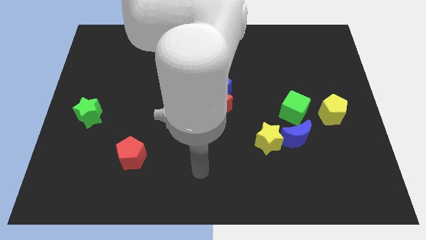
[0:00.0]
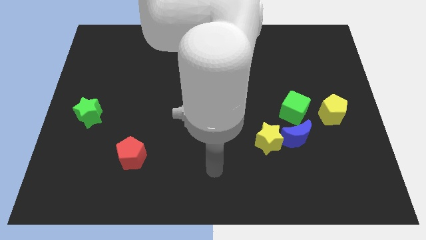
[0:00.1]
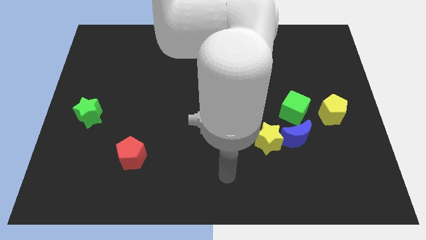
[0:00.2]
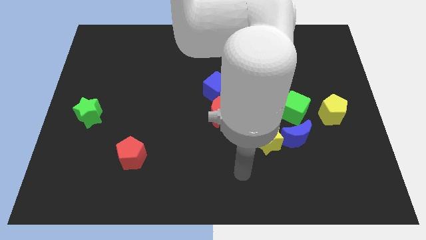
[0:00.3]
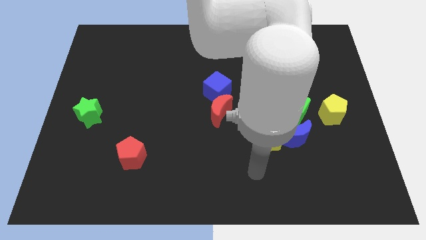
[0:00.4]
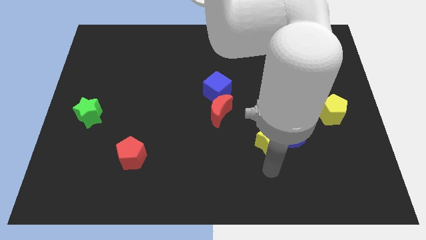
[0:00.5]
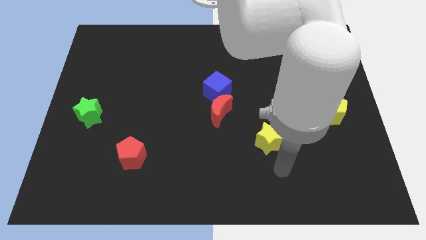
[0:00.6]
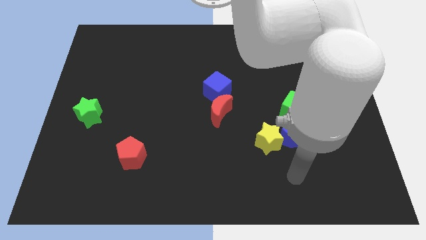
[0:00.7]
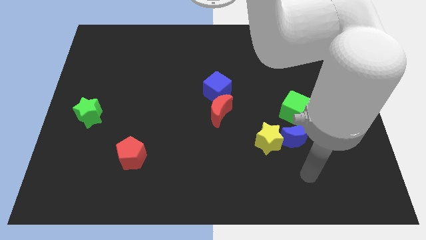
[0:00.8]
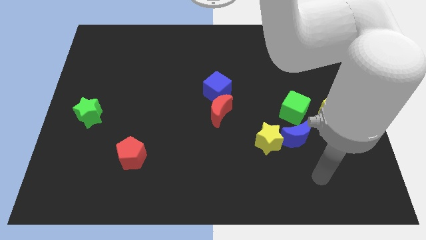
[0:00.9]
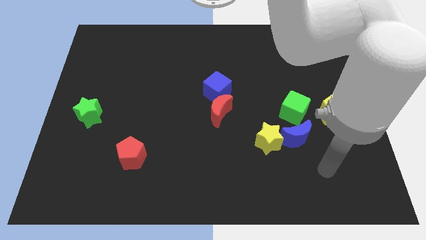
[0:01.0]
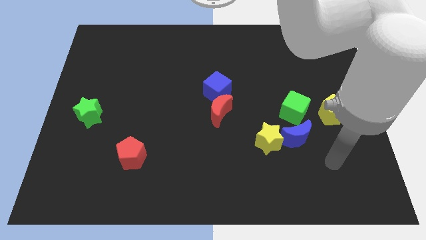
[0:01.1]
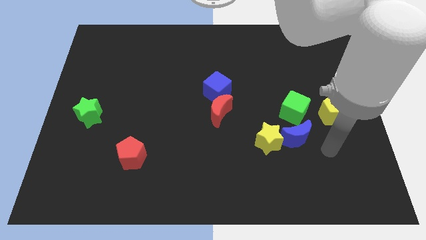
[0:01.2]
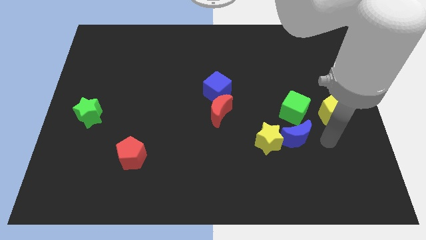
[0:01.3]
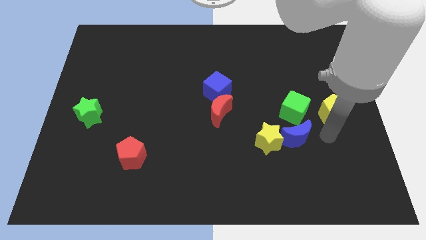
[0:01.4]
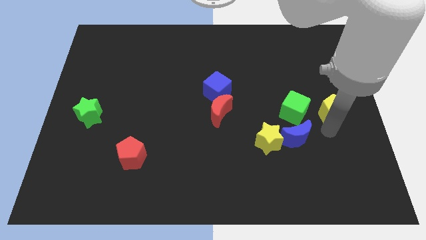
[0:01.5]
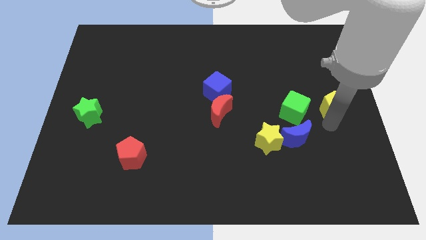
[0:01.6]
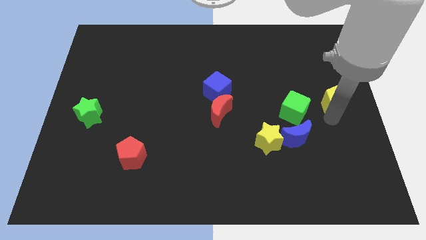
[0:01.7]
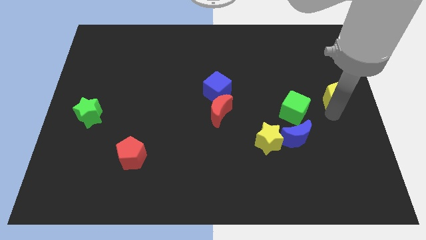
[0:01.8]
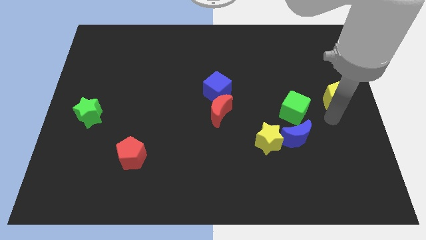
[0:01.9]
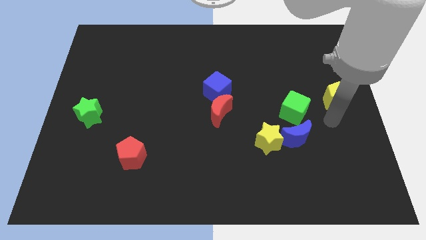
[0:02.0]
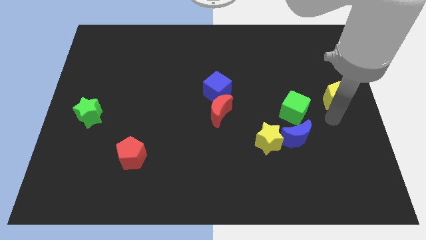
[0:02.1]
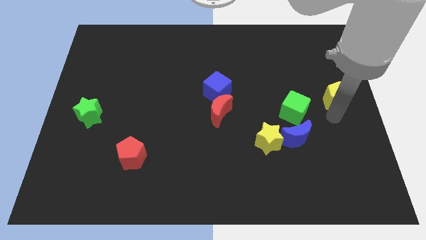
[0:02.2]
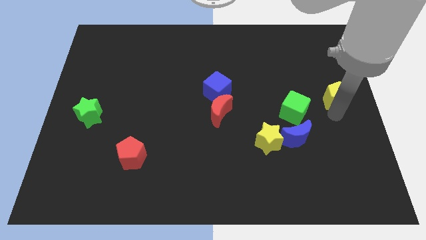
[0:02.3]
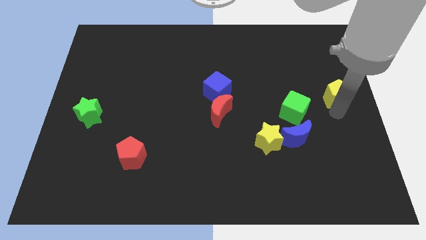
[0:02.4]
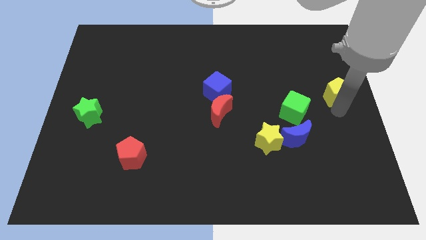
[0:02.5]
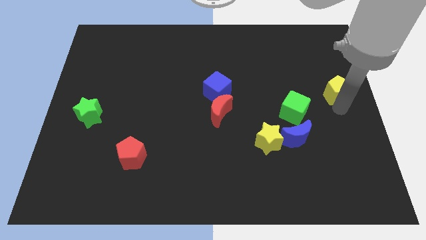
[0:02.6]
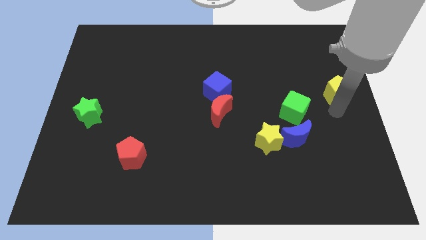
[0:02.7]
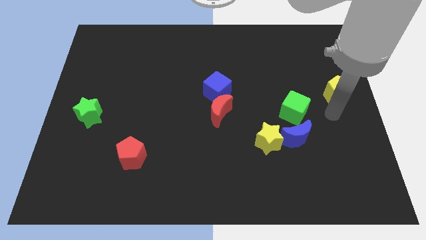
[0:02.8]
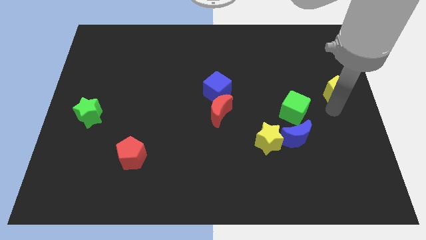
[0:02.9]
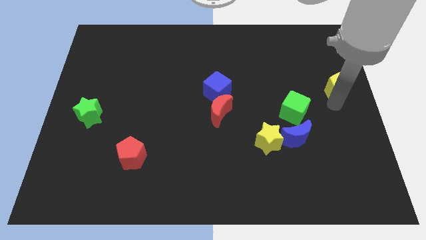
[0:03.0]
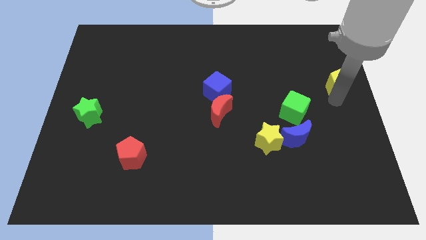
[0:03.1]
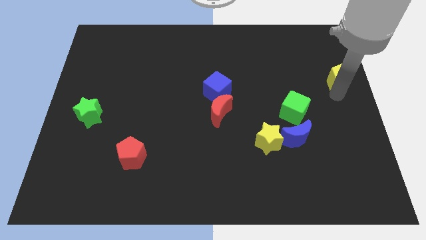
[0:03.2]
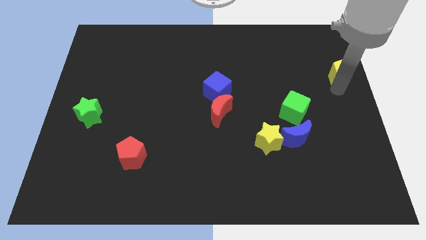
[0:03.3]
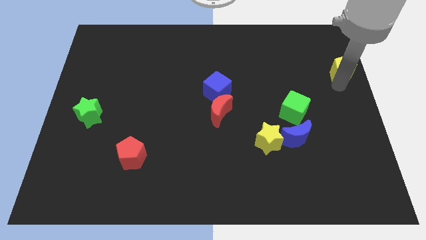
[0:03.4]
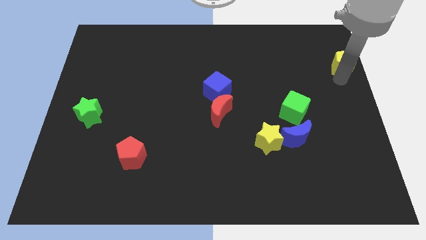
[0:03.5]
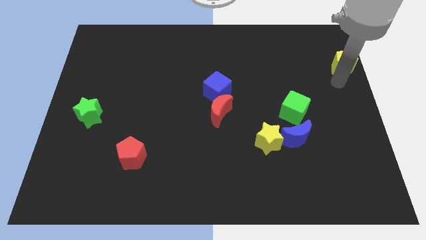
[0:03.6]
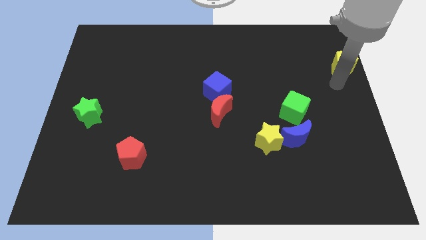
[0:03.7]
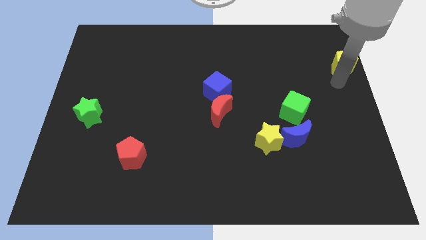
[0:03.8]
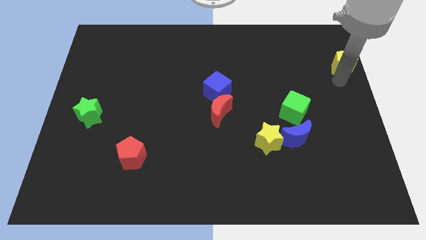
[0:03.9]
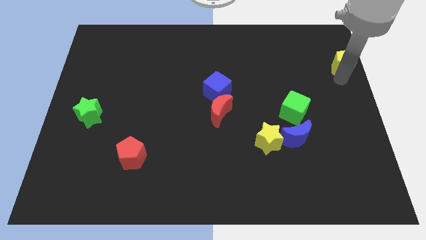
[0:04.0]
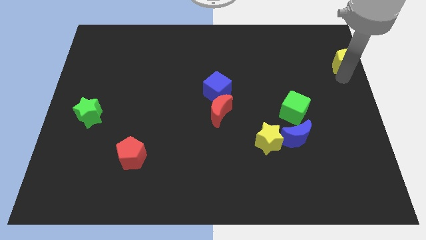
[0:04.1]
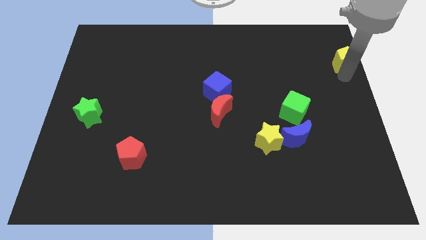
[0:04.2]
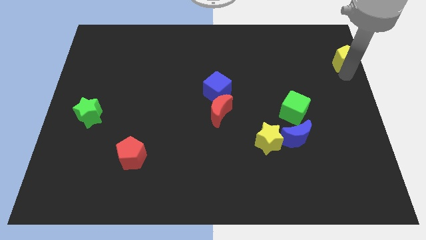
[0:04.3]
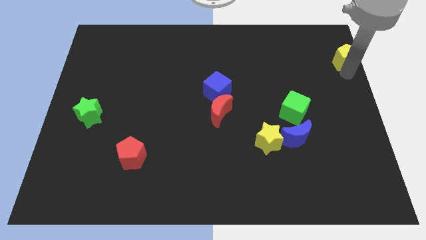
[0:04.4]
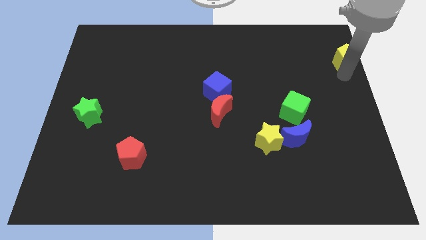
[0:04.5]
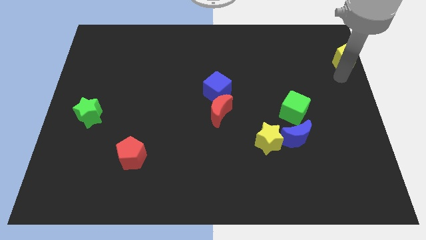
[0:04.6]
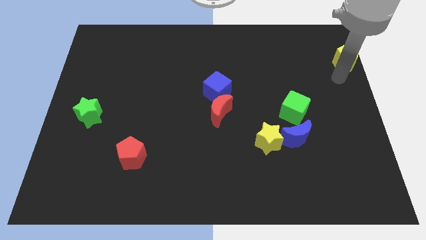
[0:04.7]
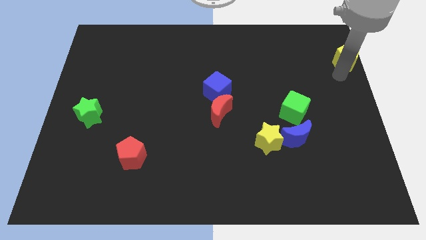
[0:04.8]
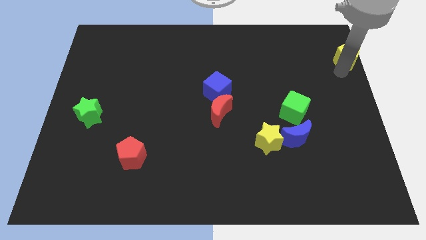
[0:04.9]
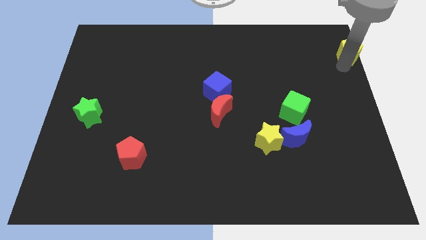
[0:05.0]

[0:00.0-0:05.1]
move the yellow pentagon to the top right corner

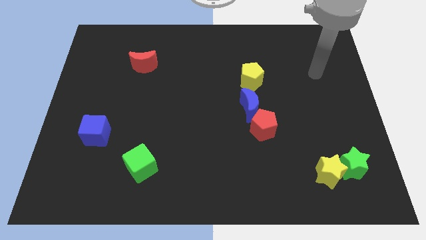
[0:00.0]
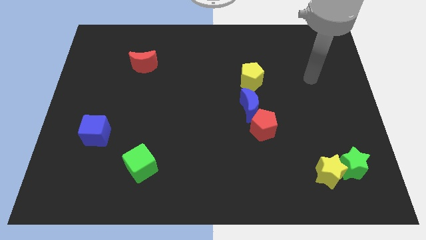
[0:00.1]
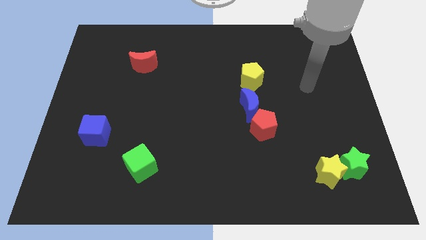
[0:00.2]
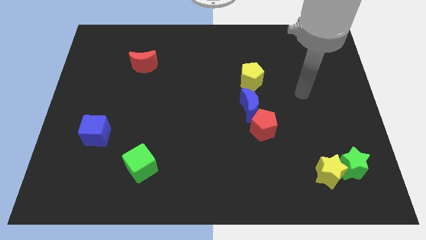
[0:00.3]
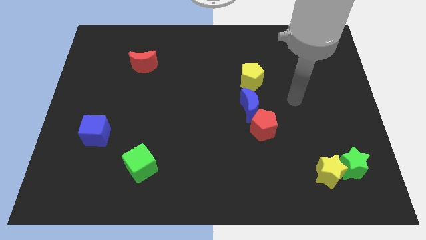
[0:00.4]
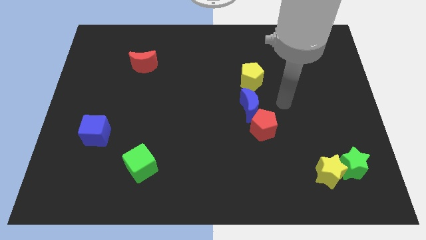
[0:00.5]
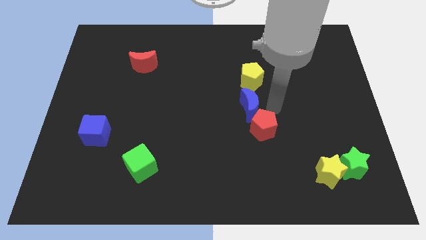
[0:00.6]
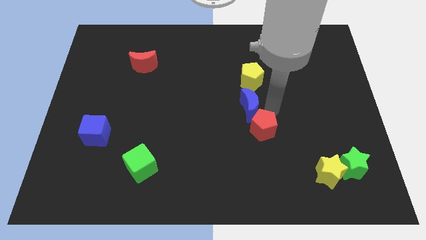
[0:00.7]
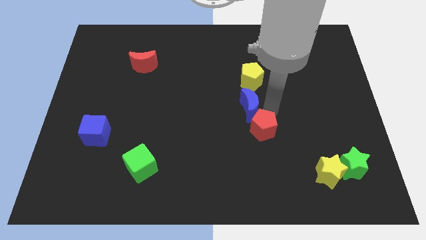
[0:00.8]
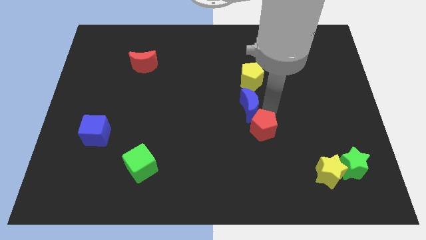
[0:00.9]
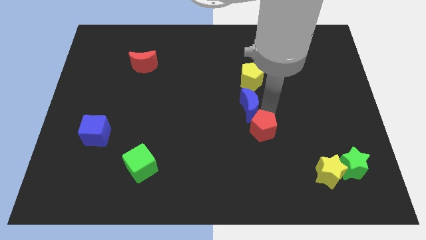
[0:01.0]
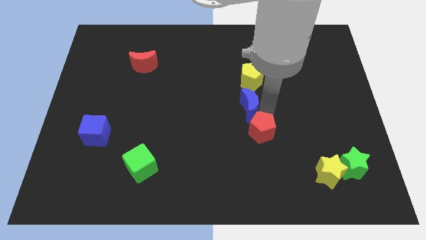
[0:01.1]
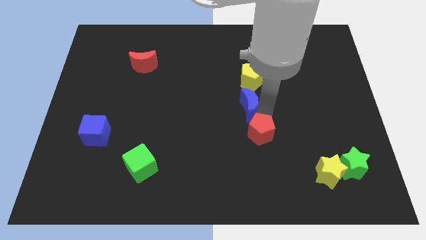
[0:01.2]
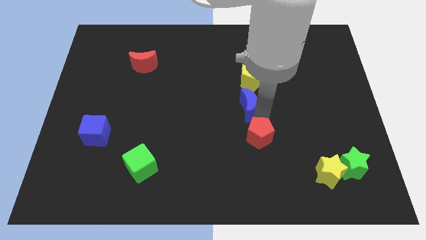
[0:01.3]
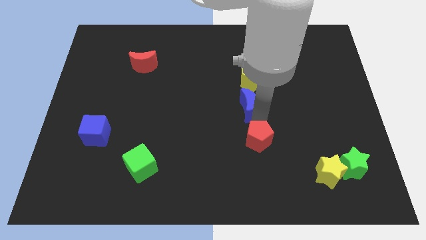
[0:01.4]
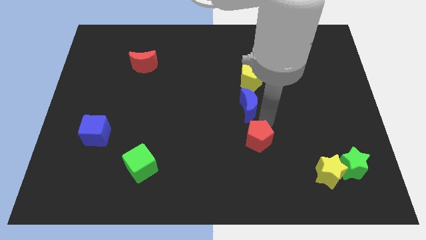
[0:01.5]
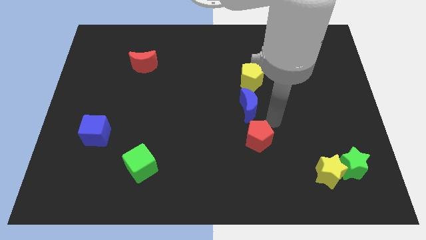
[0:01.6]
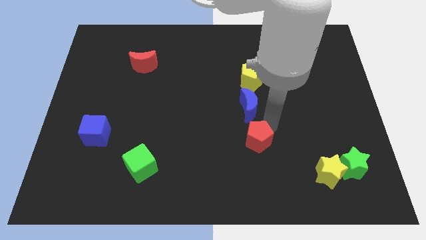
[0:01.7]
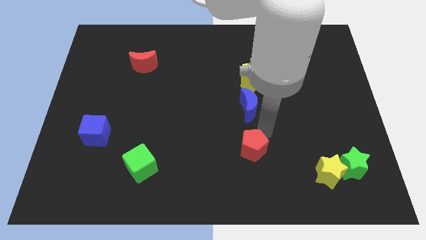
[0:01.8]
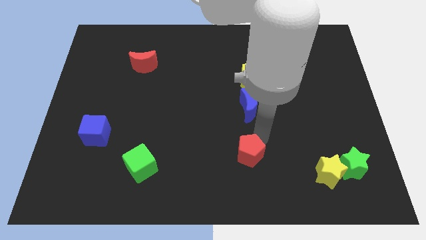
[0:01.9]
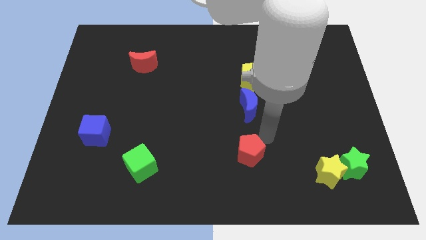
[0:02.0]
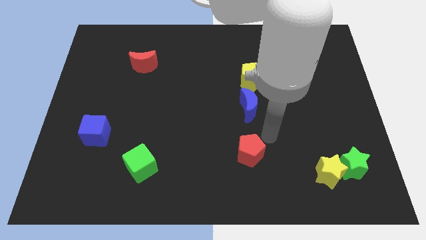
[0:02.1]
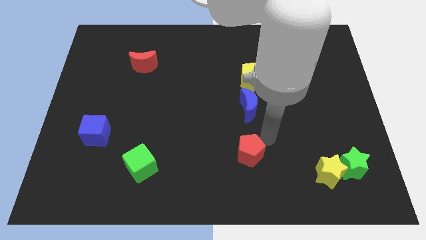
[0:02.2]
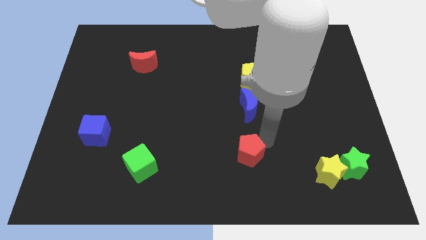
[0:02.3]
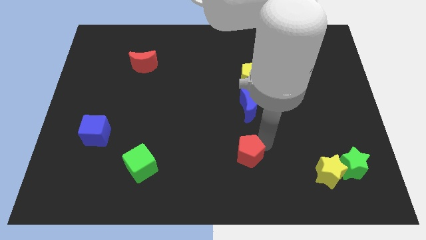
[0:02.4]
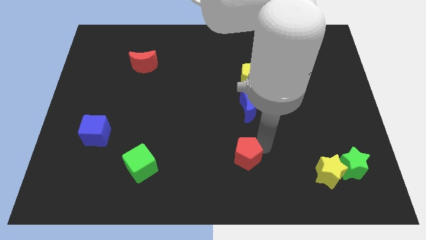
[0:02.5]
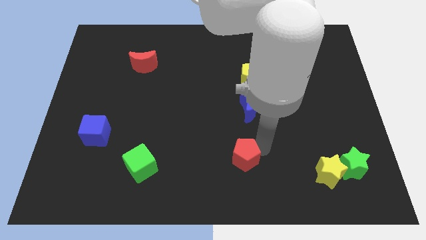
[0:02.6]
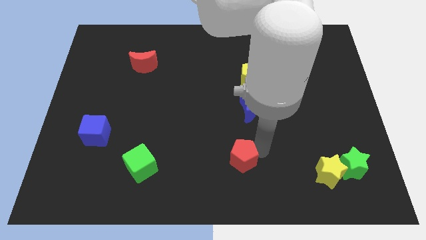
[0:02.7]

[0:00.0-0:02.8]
push the red pentagon to the bottom side
